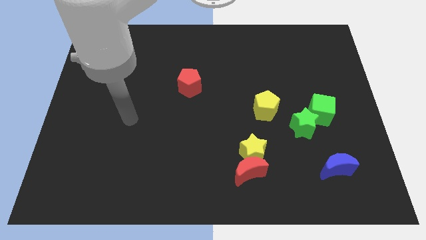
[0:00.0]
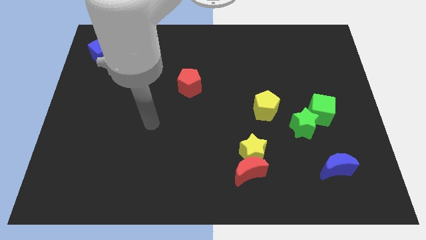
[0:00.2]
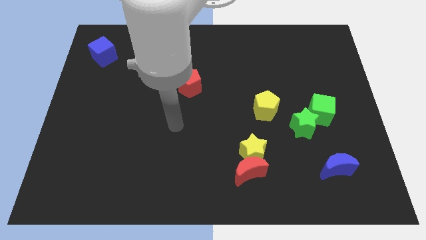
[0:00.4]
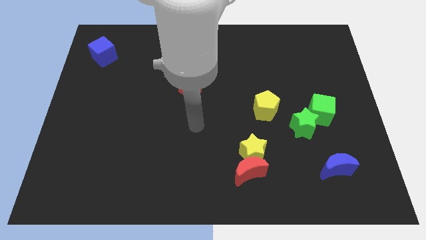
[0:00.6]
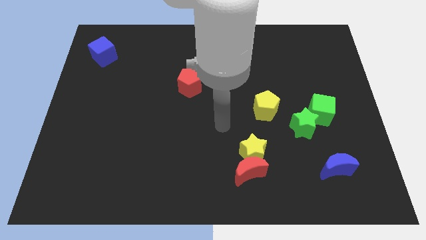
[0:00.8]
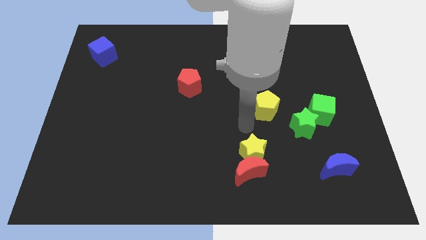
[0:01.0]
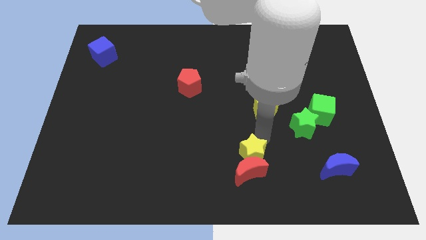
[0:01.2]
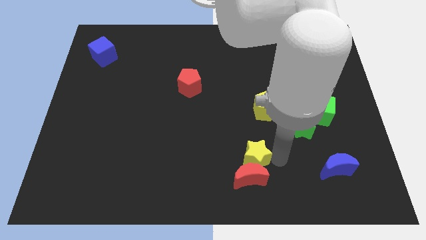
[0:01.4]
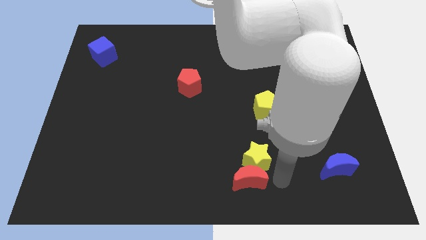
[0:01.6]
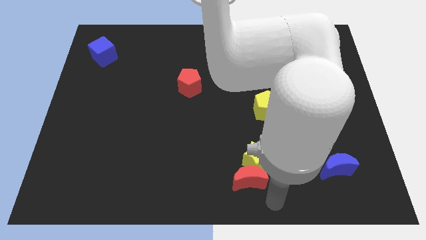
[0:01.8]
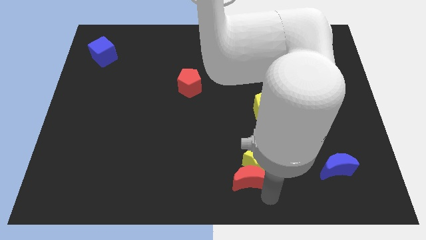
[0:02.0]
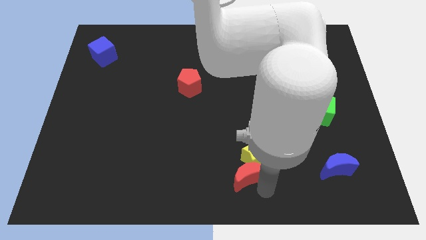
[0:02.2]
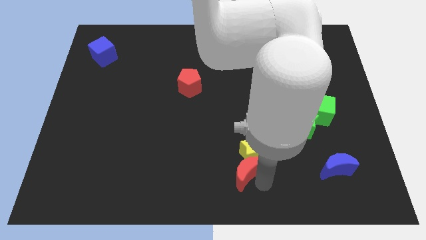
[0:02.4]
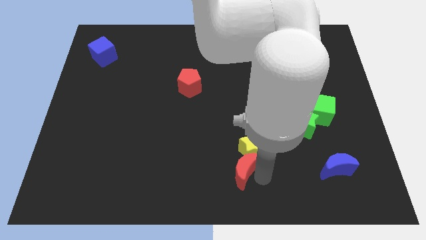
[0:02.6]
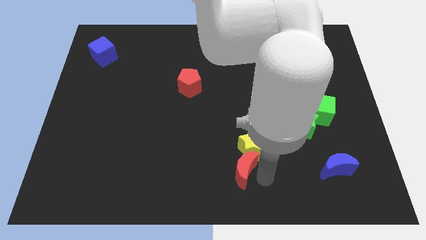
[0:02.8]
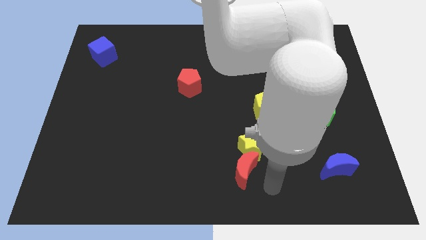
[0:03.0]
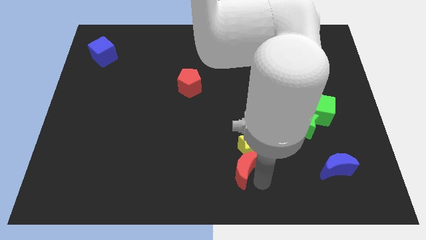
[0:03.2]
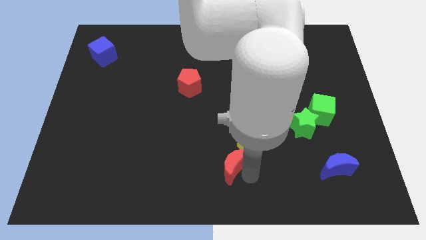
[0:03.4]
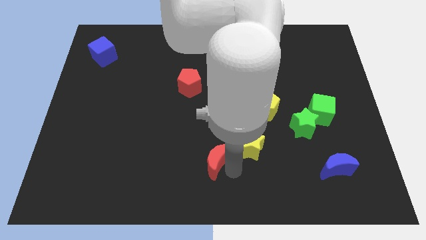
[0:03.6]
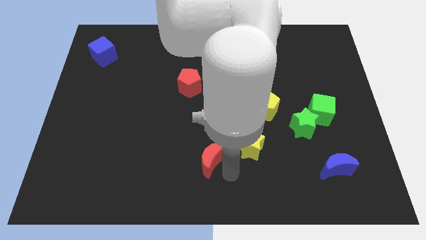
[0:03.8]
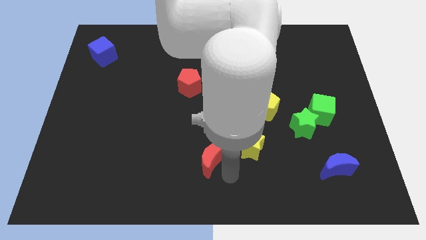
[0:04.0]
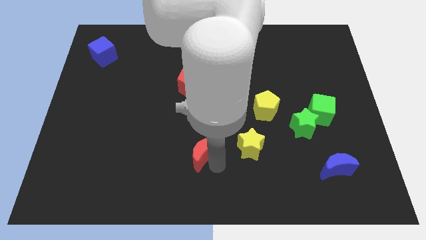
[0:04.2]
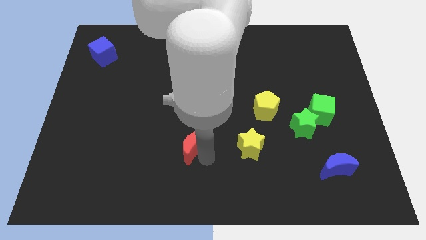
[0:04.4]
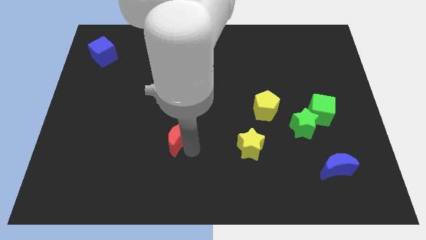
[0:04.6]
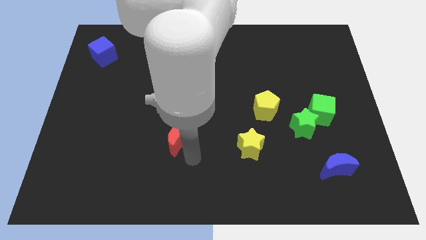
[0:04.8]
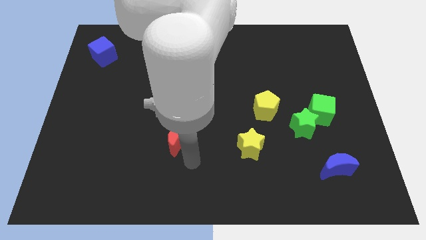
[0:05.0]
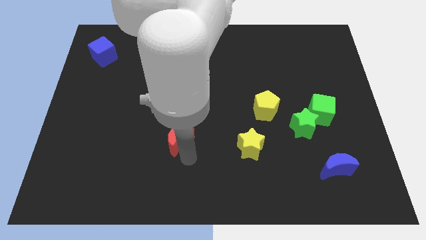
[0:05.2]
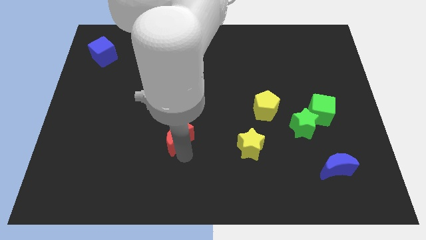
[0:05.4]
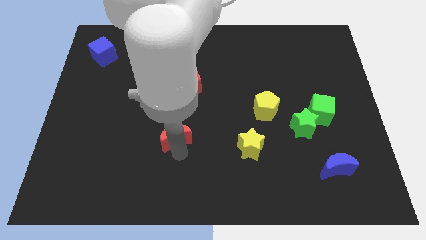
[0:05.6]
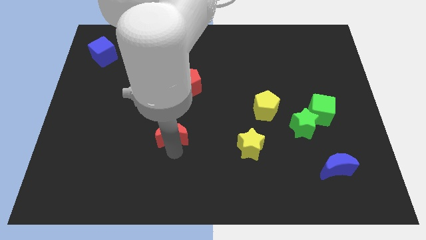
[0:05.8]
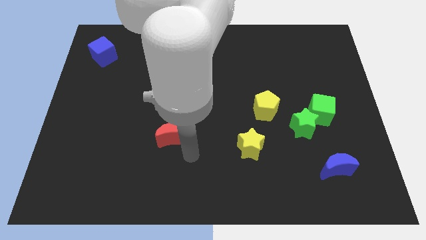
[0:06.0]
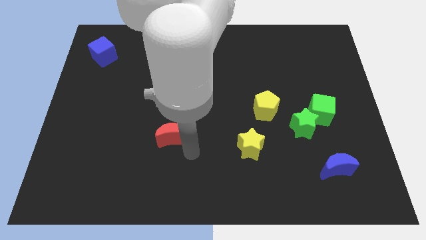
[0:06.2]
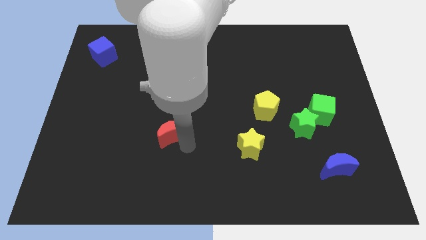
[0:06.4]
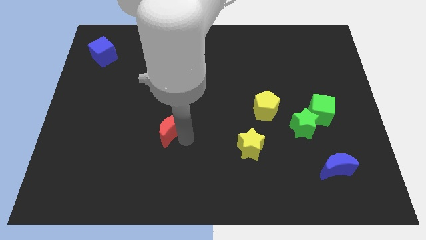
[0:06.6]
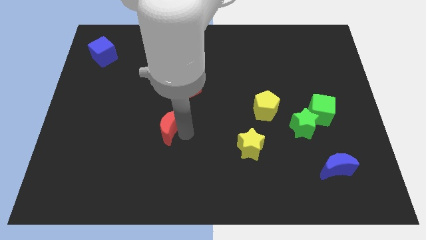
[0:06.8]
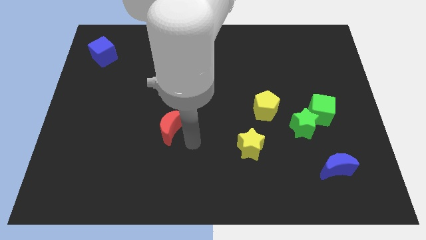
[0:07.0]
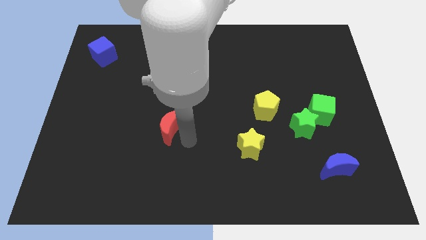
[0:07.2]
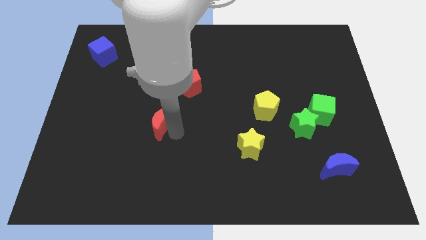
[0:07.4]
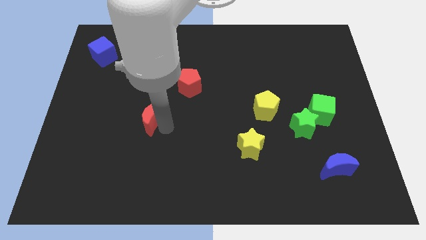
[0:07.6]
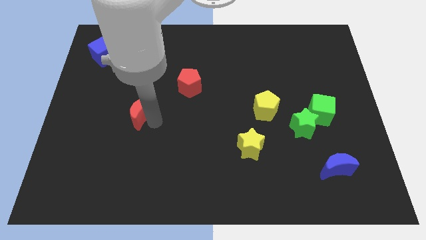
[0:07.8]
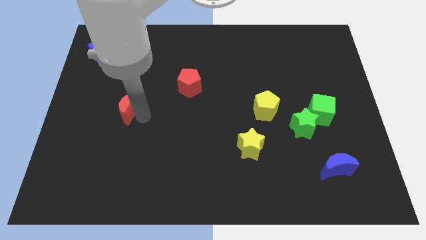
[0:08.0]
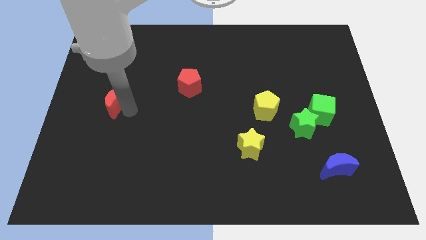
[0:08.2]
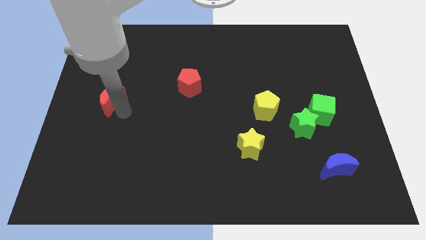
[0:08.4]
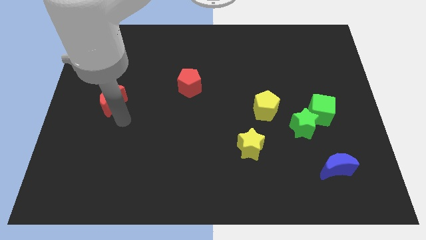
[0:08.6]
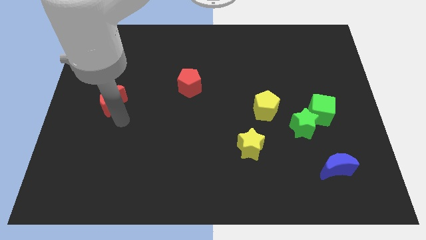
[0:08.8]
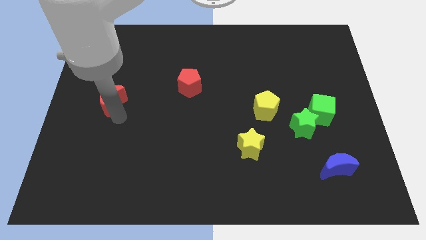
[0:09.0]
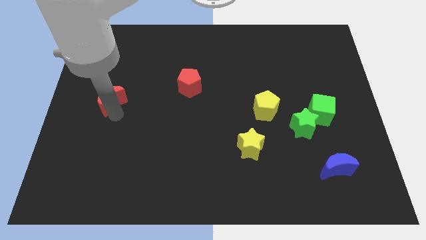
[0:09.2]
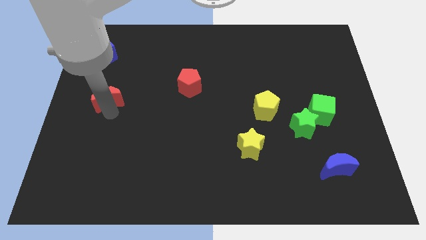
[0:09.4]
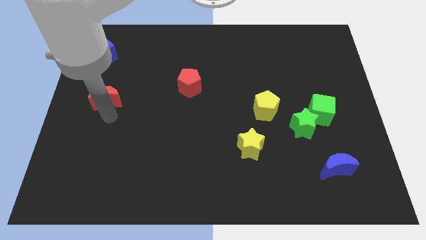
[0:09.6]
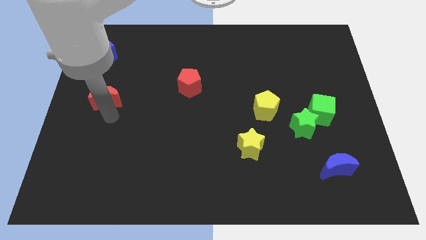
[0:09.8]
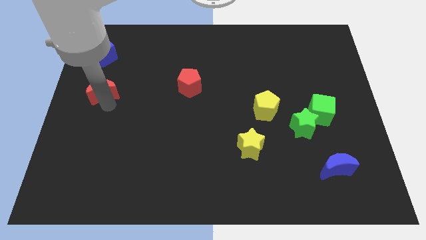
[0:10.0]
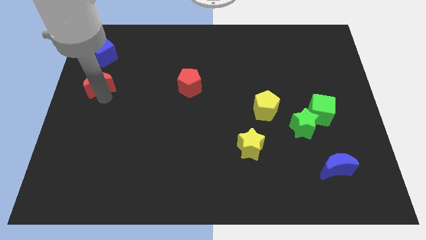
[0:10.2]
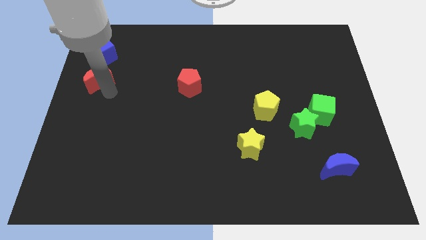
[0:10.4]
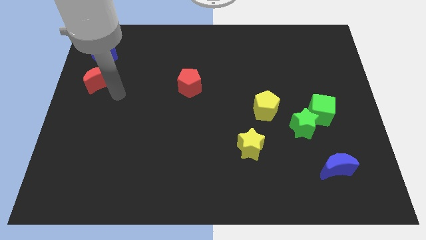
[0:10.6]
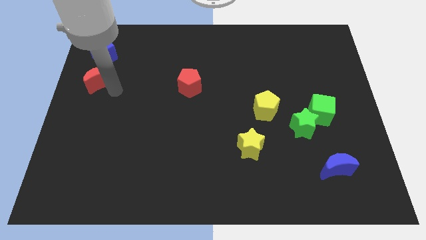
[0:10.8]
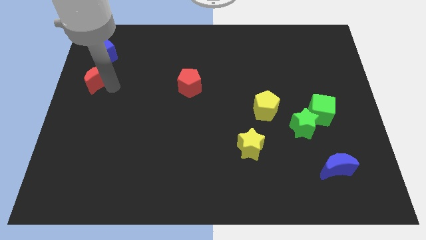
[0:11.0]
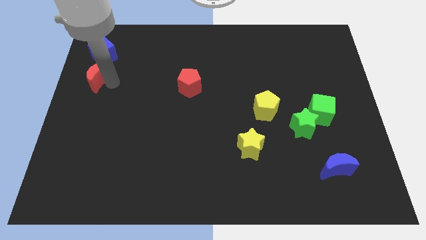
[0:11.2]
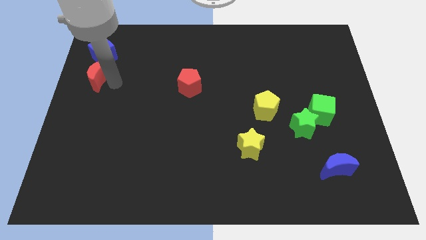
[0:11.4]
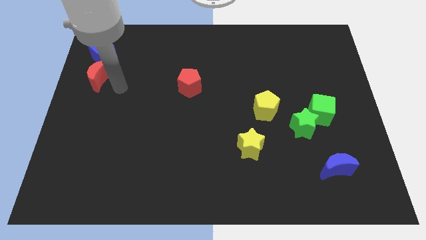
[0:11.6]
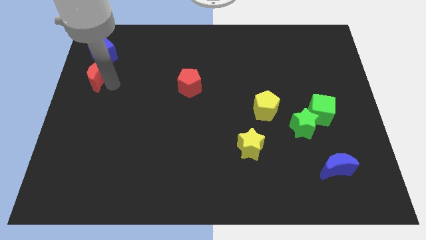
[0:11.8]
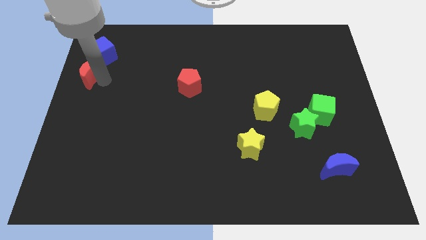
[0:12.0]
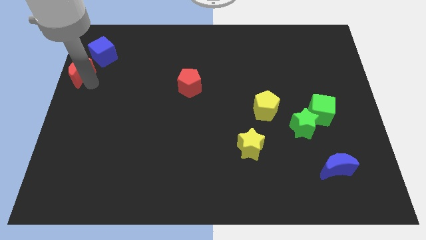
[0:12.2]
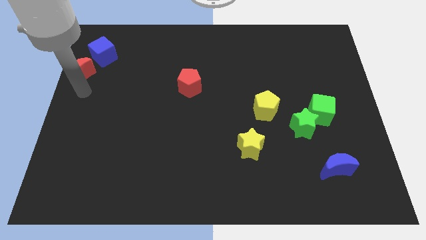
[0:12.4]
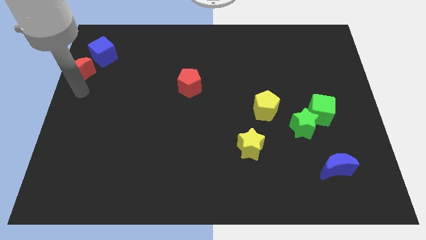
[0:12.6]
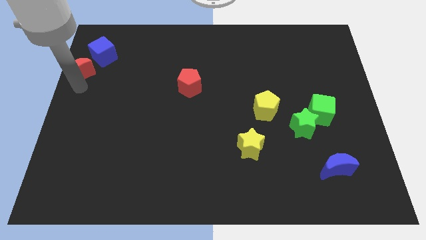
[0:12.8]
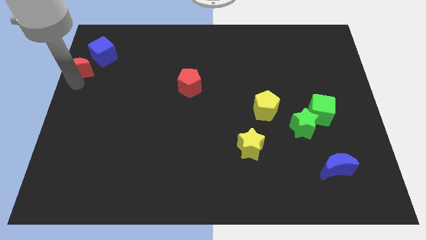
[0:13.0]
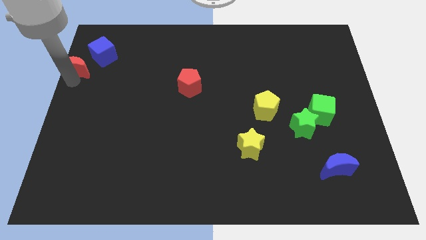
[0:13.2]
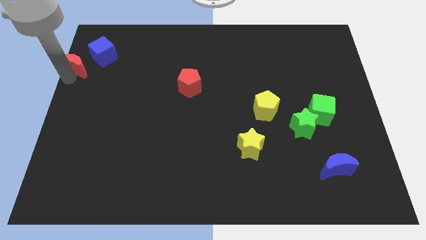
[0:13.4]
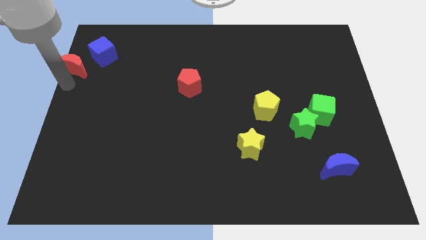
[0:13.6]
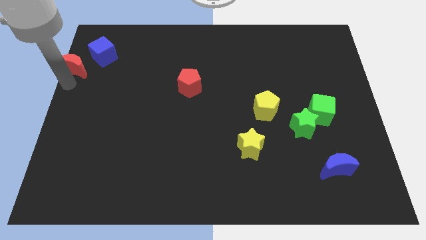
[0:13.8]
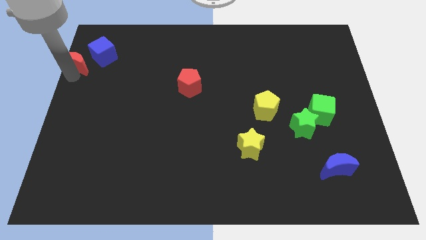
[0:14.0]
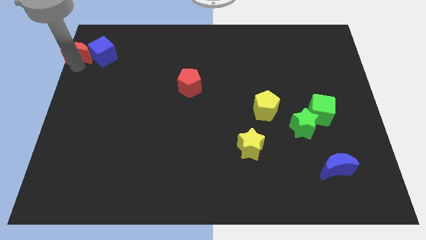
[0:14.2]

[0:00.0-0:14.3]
move the red moon to the top left corner
